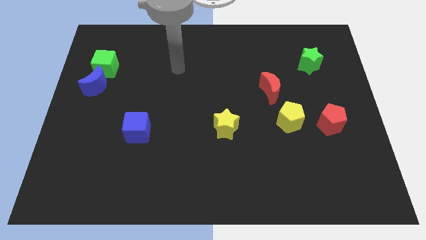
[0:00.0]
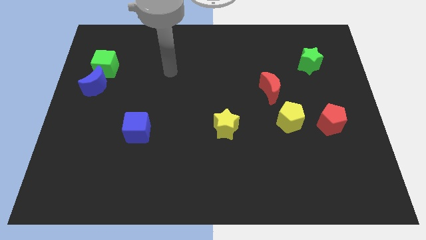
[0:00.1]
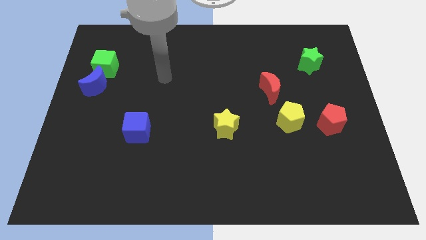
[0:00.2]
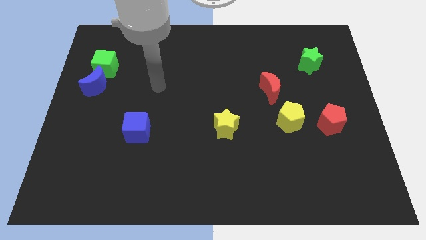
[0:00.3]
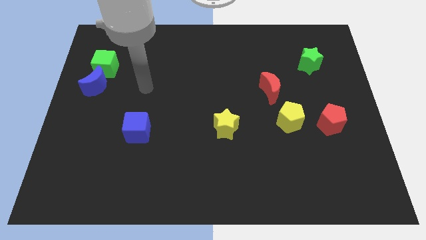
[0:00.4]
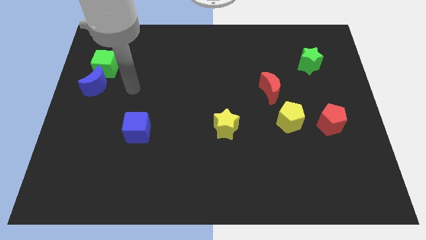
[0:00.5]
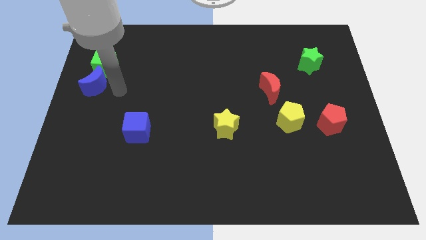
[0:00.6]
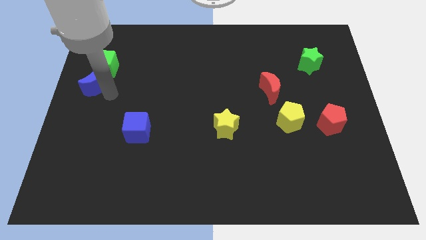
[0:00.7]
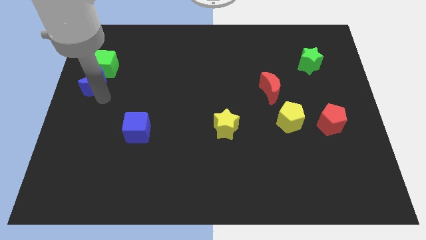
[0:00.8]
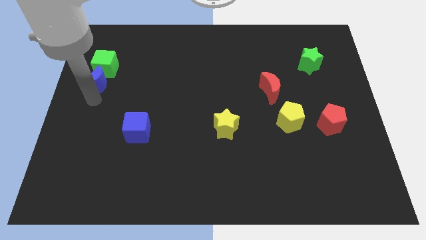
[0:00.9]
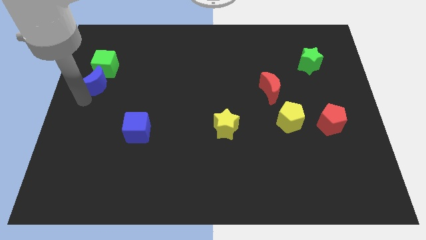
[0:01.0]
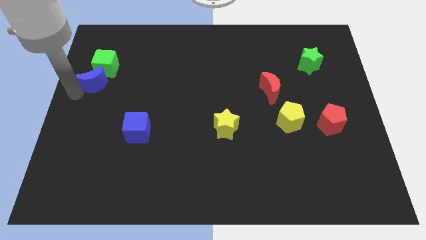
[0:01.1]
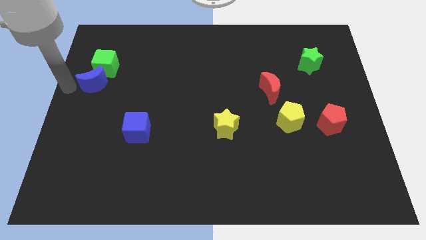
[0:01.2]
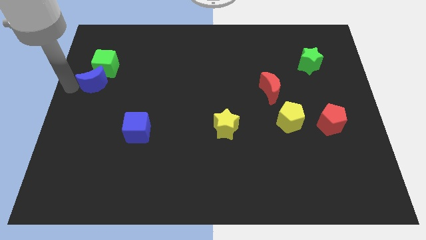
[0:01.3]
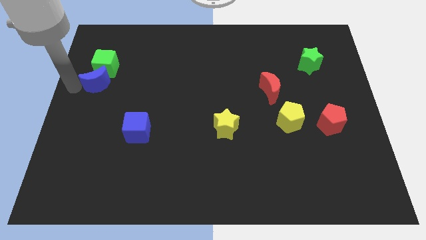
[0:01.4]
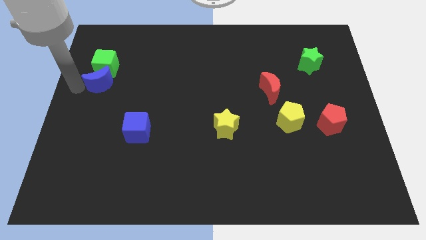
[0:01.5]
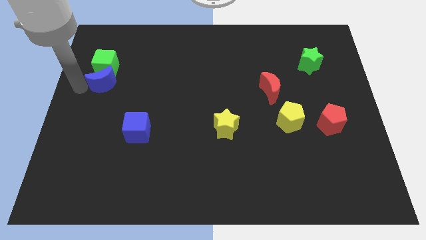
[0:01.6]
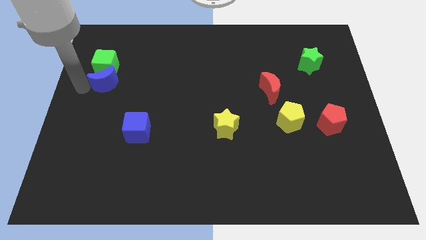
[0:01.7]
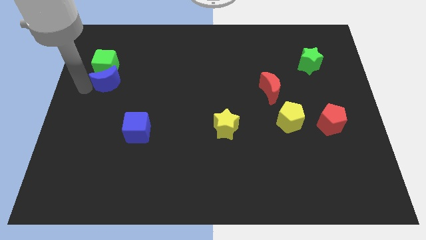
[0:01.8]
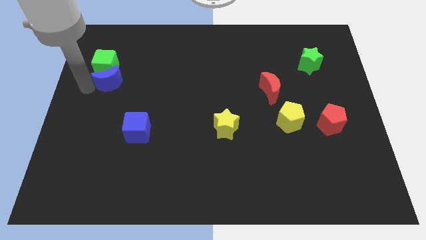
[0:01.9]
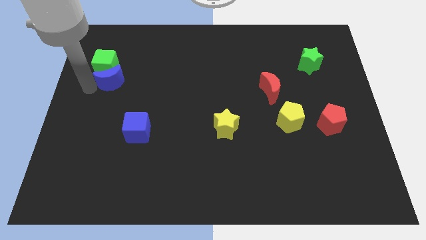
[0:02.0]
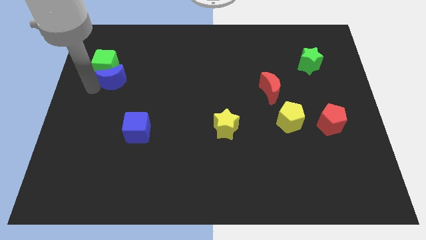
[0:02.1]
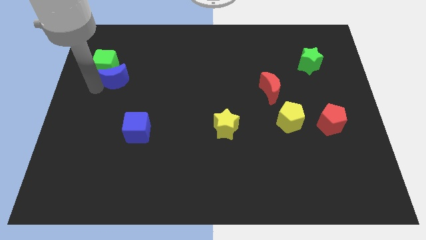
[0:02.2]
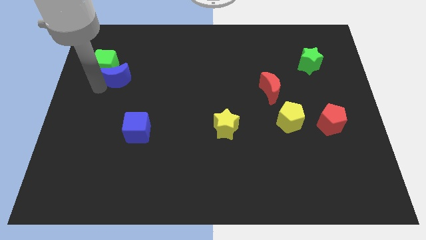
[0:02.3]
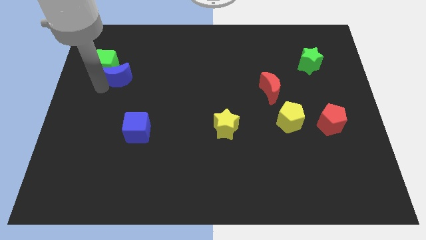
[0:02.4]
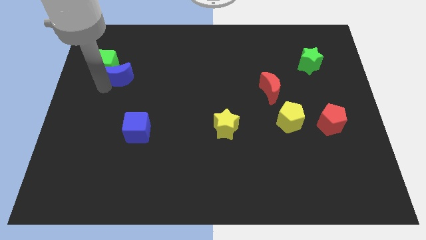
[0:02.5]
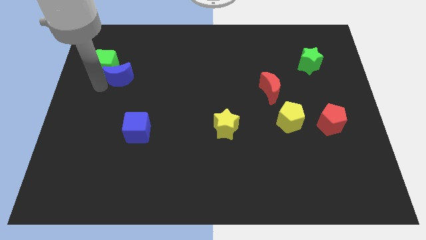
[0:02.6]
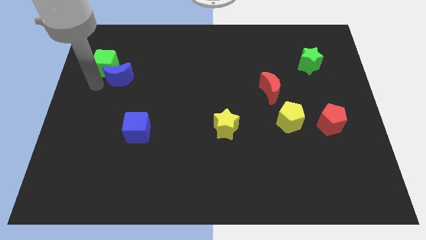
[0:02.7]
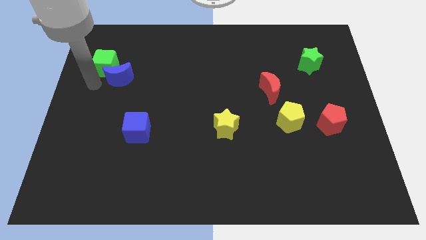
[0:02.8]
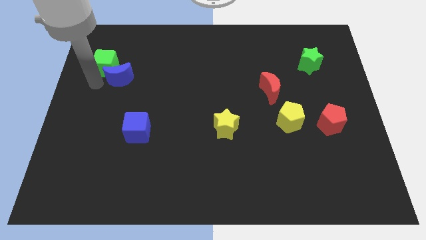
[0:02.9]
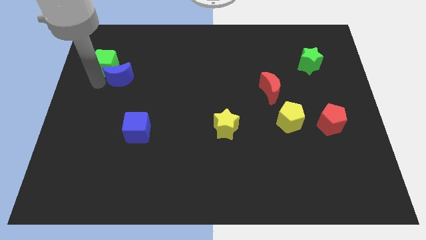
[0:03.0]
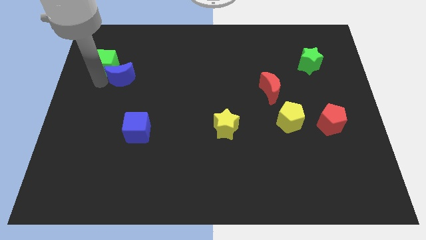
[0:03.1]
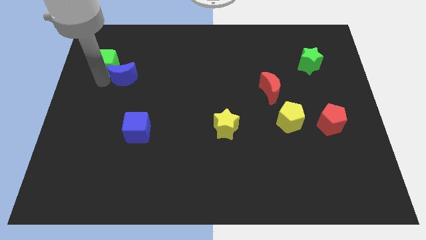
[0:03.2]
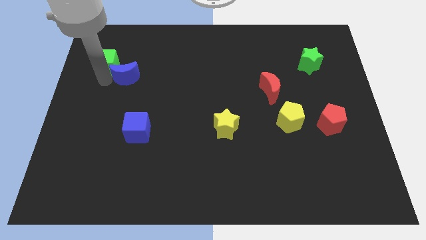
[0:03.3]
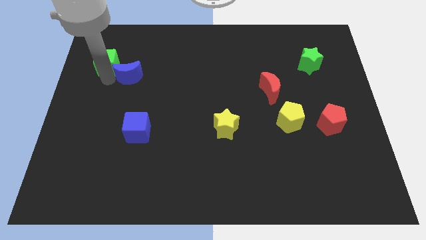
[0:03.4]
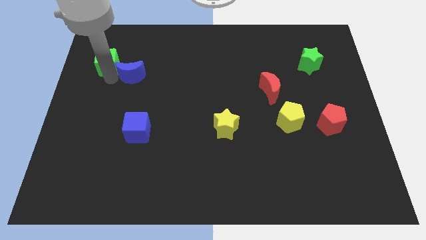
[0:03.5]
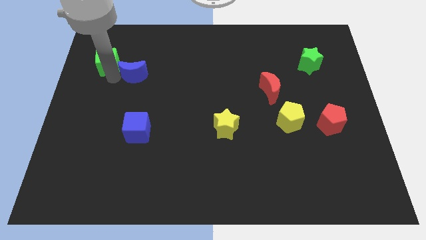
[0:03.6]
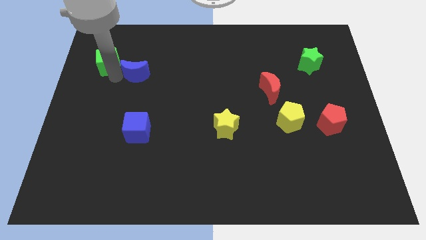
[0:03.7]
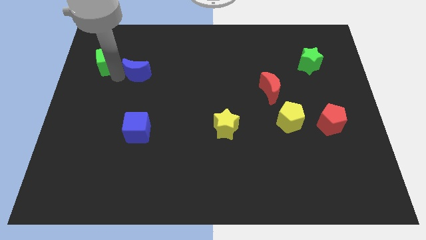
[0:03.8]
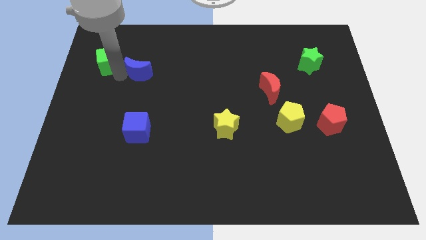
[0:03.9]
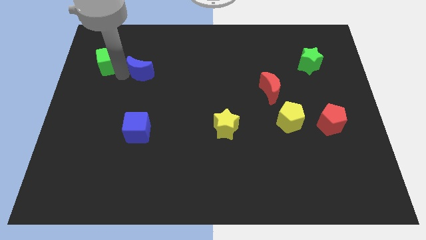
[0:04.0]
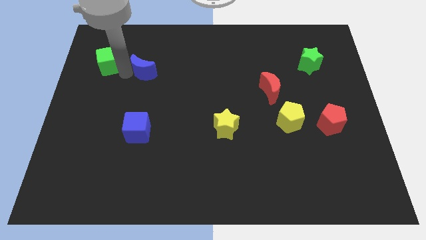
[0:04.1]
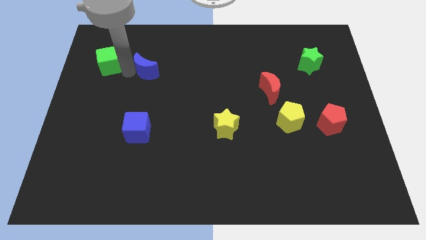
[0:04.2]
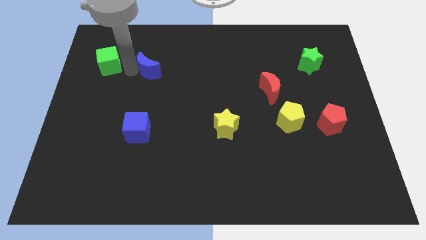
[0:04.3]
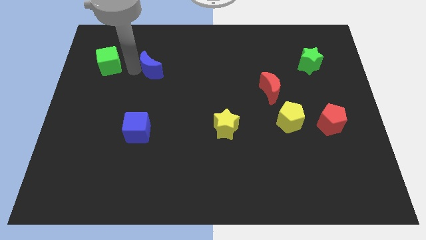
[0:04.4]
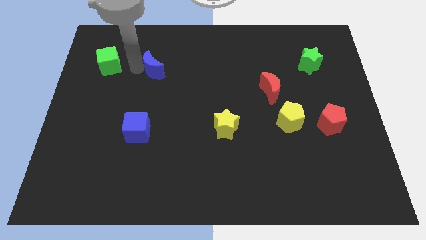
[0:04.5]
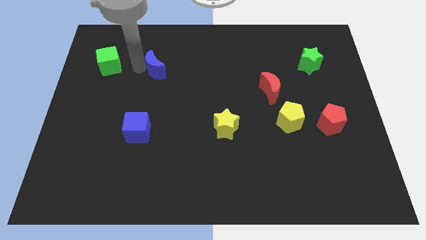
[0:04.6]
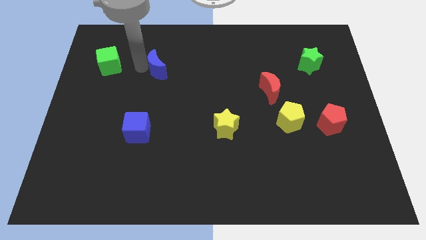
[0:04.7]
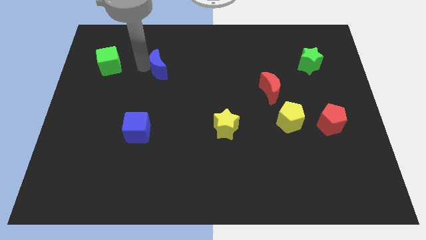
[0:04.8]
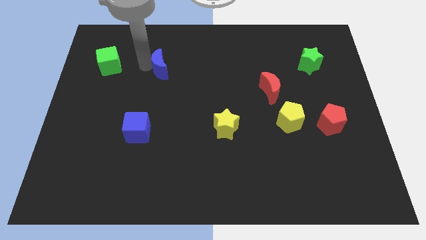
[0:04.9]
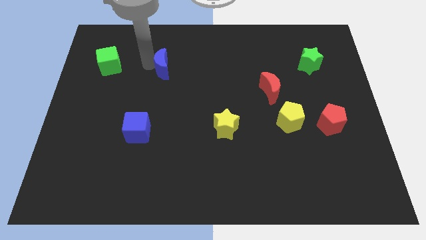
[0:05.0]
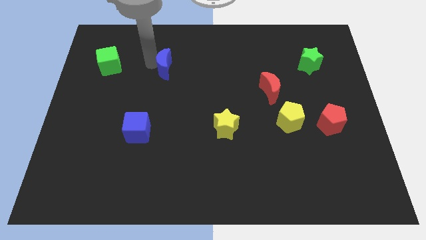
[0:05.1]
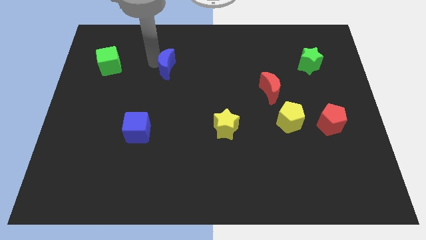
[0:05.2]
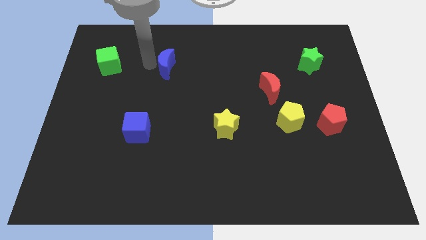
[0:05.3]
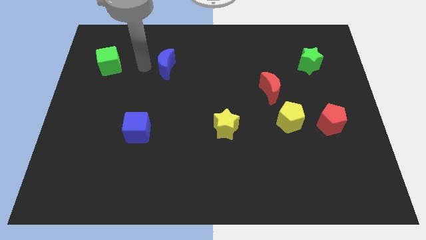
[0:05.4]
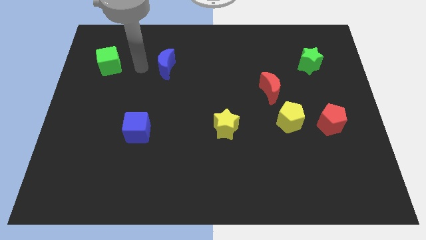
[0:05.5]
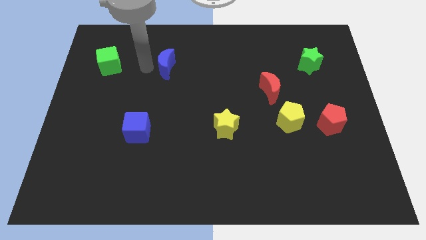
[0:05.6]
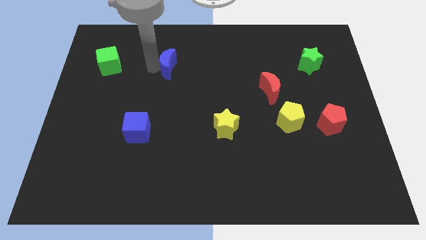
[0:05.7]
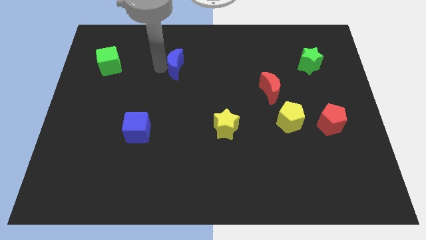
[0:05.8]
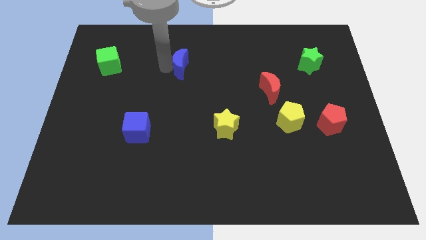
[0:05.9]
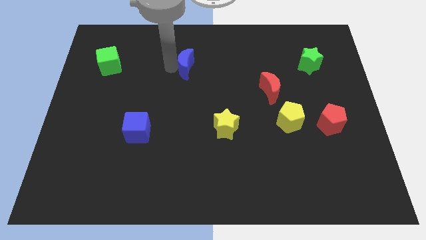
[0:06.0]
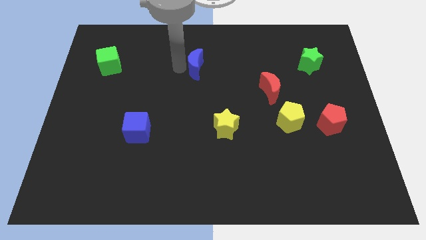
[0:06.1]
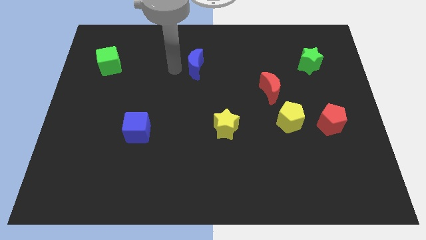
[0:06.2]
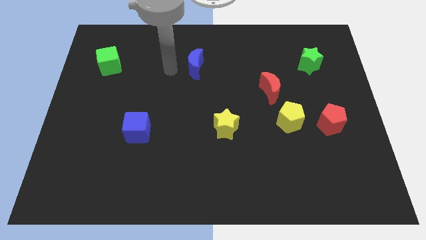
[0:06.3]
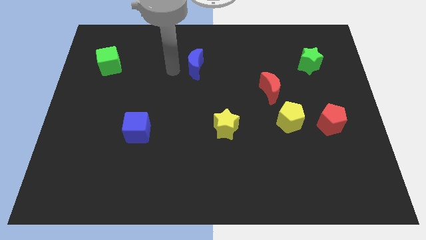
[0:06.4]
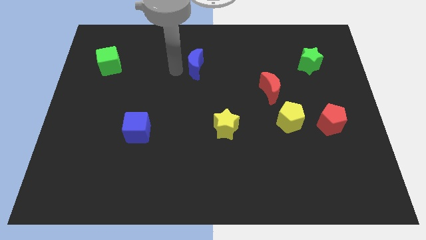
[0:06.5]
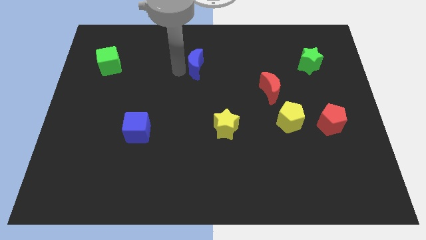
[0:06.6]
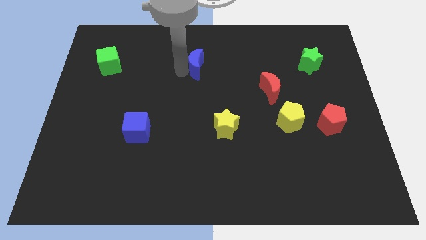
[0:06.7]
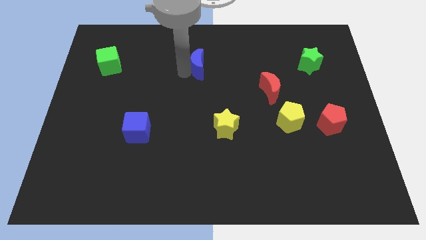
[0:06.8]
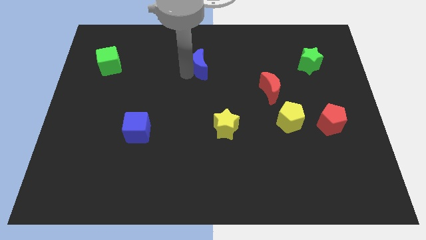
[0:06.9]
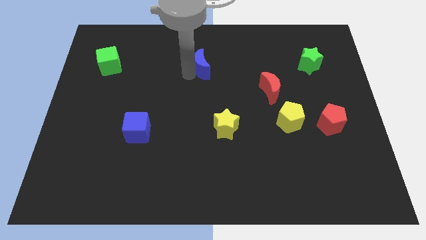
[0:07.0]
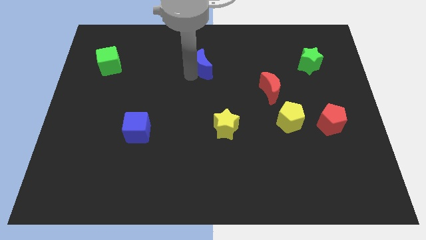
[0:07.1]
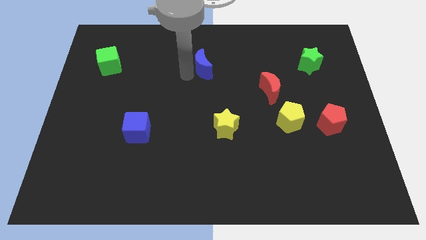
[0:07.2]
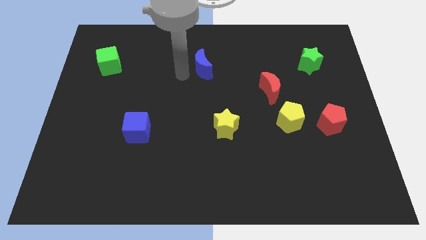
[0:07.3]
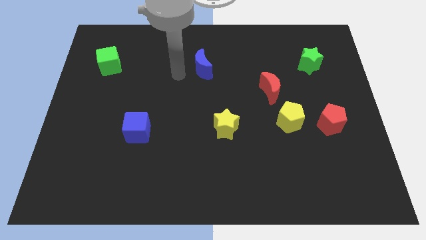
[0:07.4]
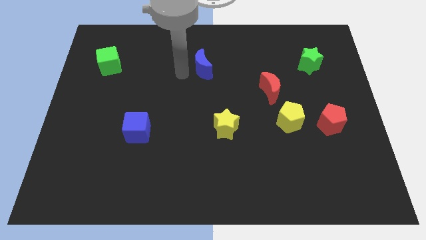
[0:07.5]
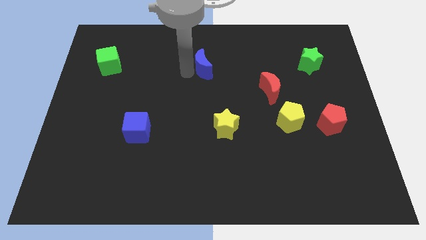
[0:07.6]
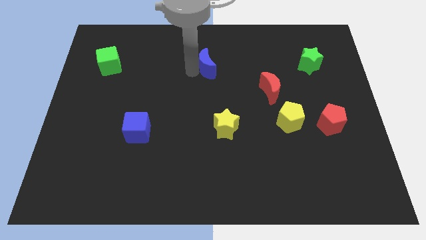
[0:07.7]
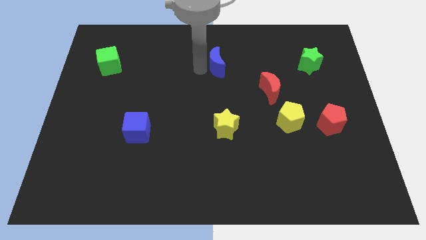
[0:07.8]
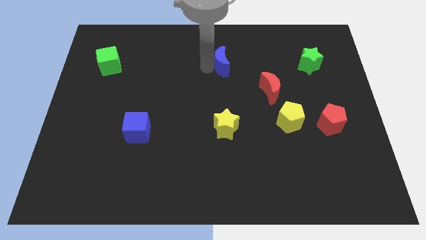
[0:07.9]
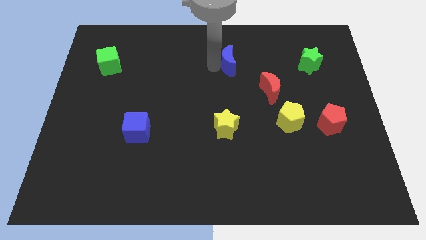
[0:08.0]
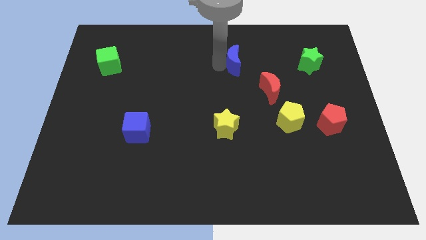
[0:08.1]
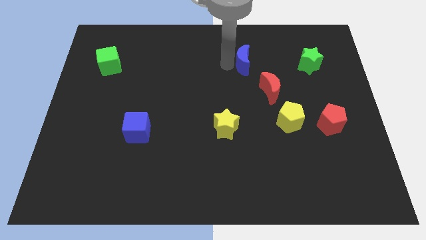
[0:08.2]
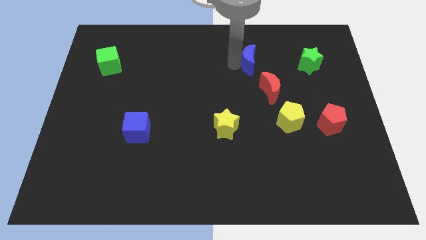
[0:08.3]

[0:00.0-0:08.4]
put the blue moon above the red moon
